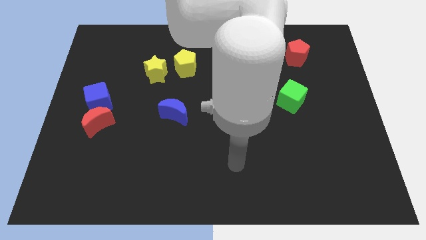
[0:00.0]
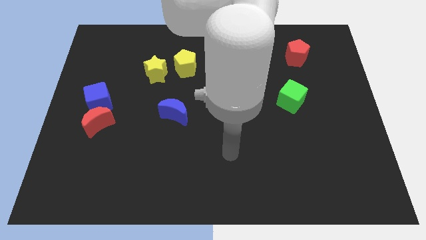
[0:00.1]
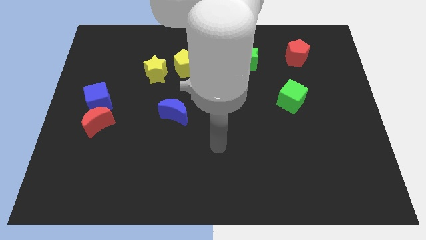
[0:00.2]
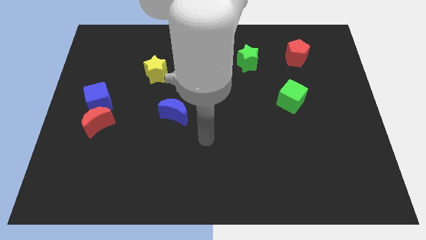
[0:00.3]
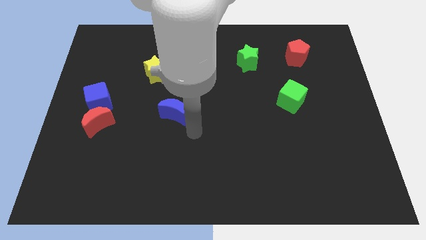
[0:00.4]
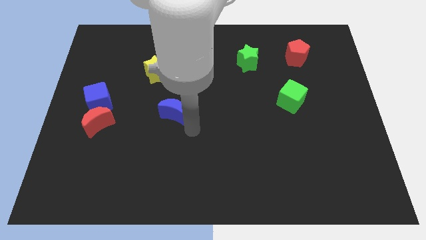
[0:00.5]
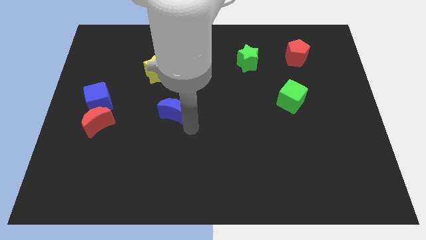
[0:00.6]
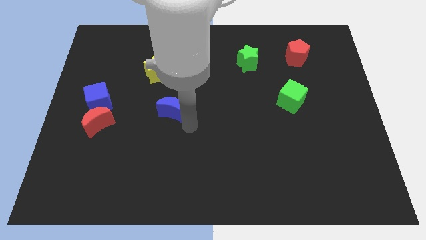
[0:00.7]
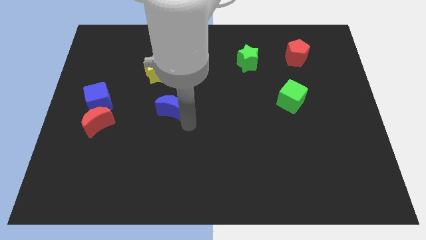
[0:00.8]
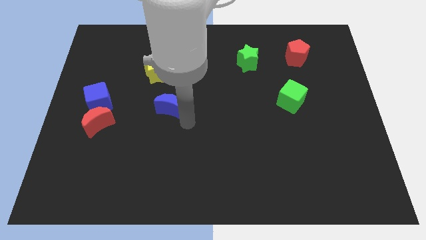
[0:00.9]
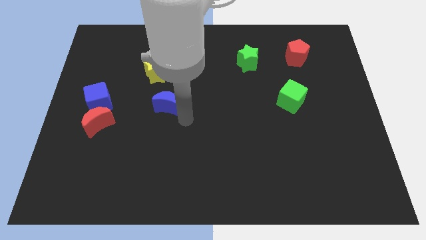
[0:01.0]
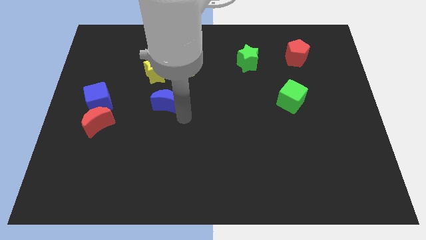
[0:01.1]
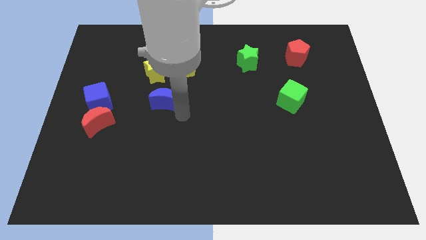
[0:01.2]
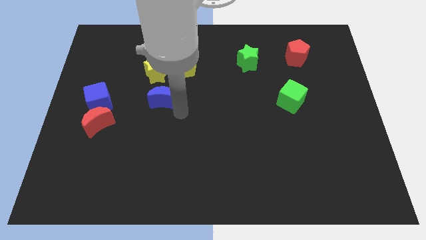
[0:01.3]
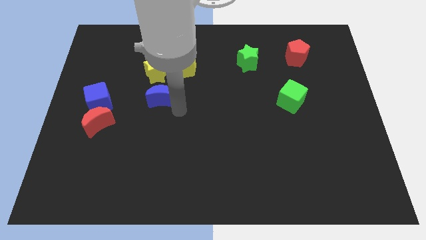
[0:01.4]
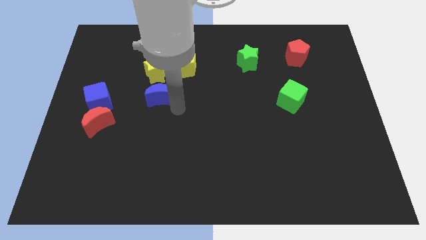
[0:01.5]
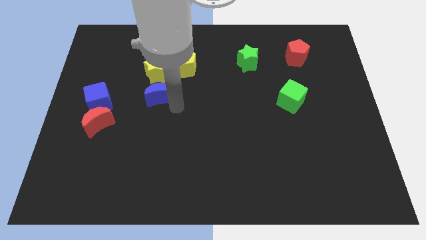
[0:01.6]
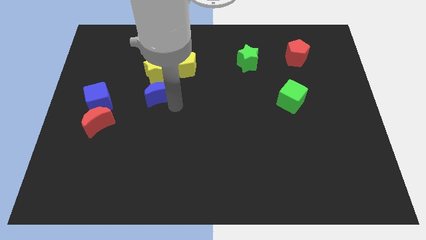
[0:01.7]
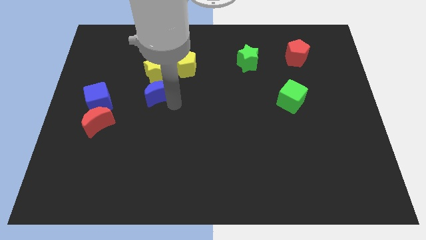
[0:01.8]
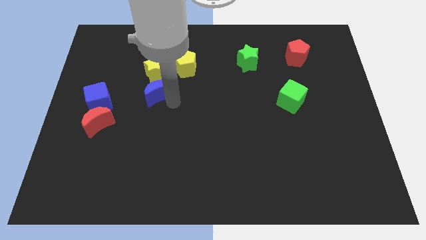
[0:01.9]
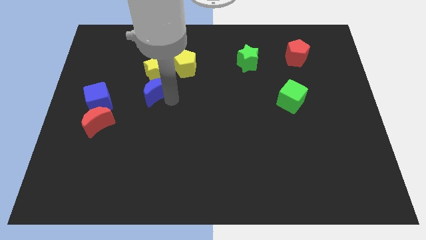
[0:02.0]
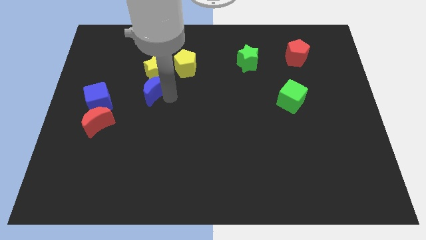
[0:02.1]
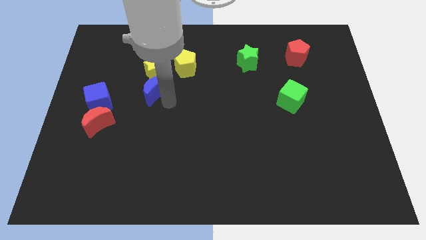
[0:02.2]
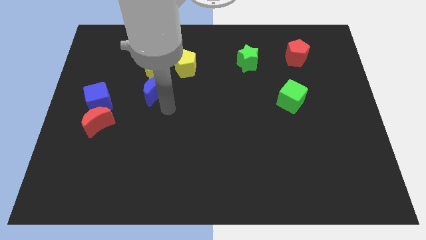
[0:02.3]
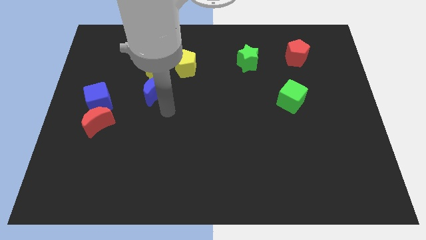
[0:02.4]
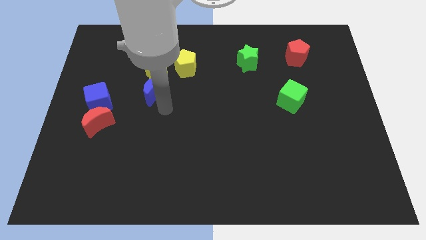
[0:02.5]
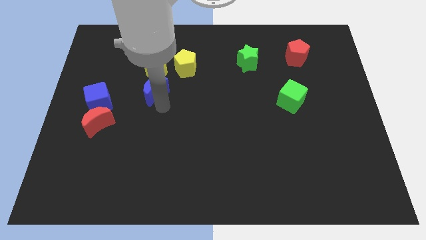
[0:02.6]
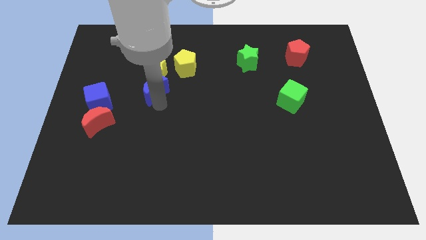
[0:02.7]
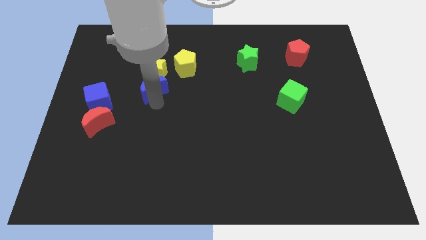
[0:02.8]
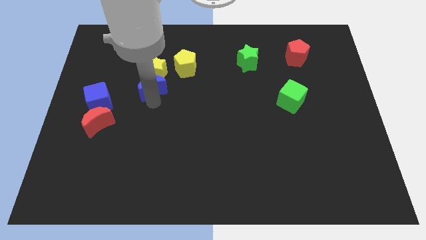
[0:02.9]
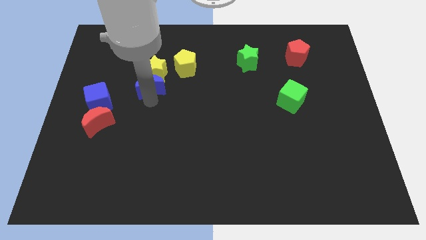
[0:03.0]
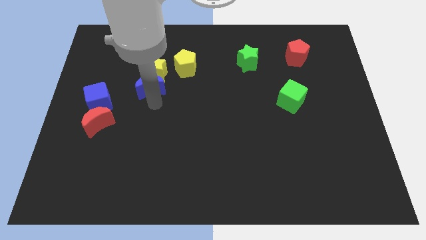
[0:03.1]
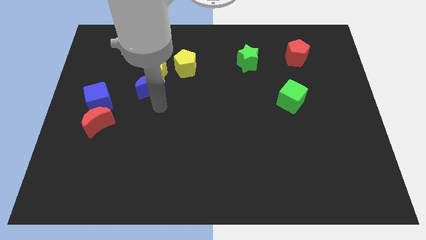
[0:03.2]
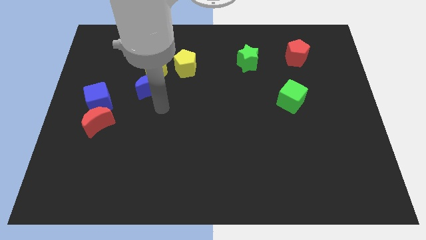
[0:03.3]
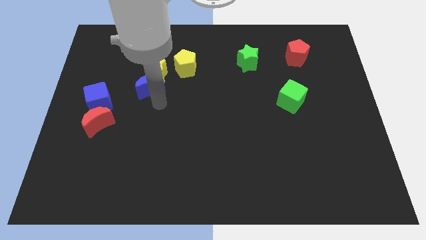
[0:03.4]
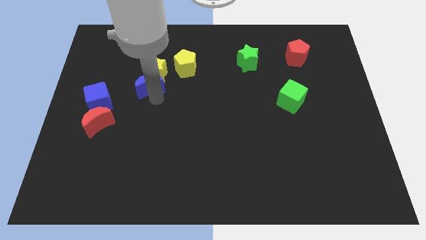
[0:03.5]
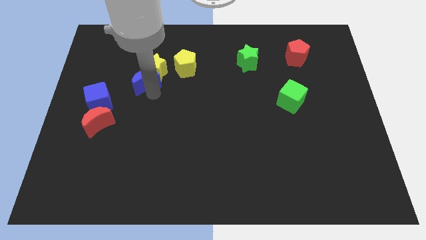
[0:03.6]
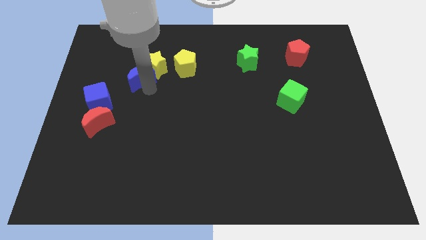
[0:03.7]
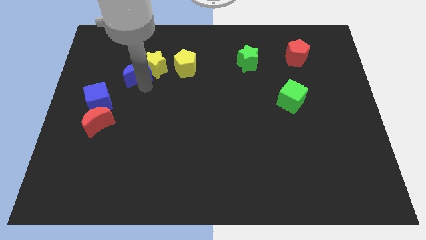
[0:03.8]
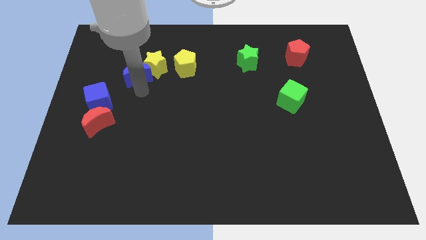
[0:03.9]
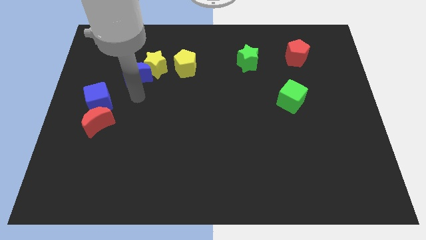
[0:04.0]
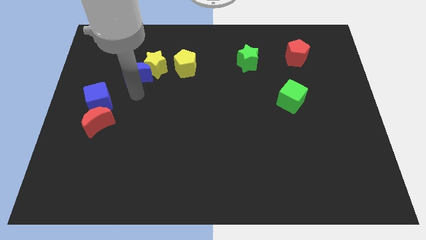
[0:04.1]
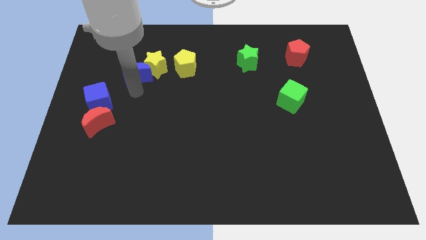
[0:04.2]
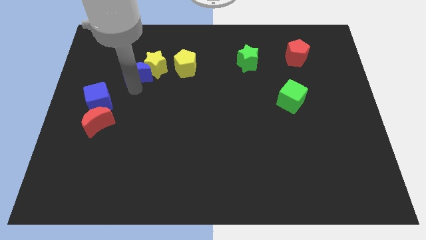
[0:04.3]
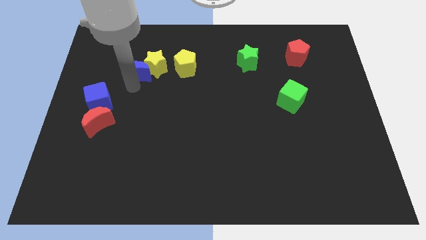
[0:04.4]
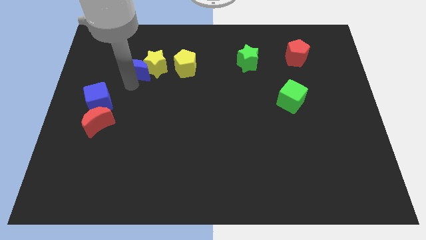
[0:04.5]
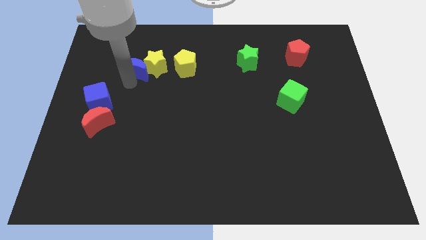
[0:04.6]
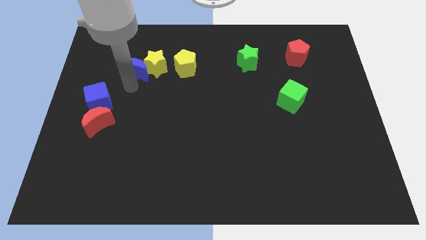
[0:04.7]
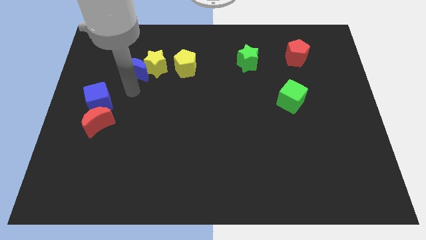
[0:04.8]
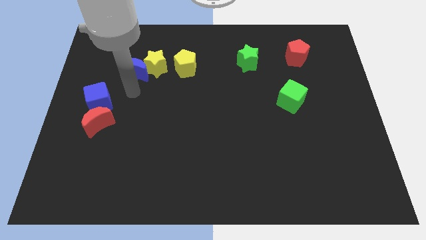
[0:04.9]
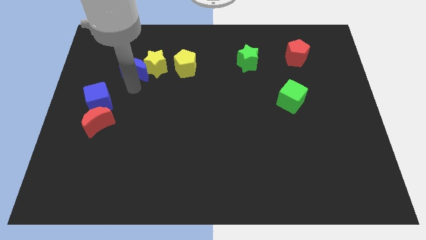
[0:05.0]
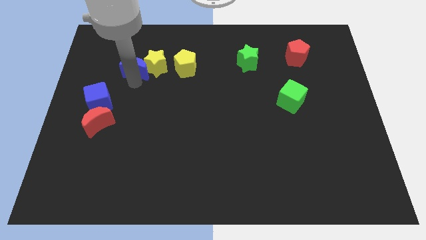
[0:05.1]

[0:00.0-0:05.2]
put the blue moon to the top left side of the yellow star

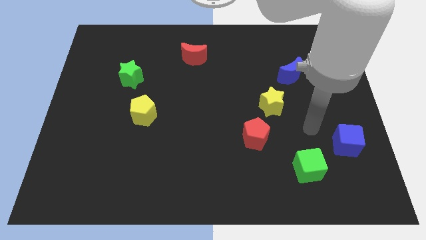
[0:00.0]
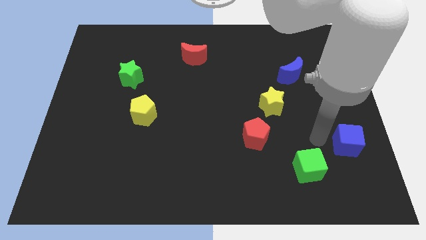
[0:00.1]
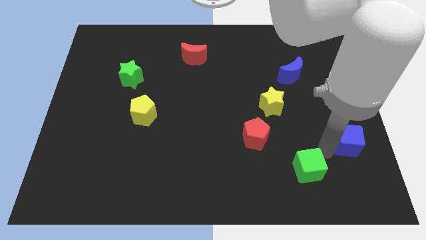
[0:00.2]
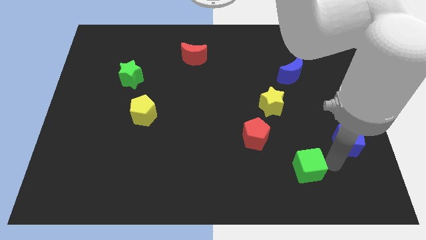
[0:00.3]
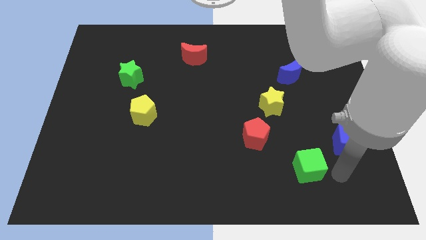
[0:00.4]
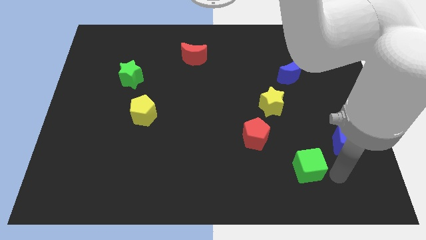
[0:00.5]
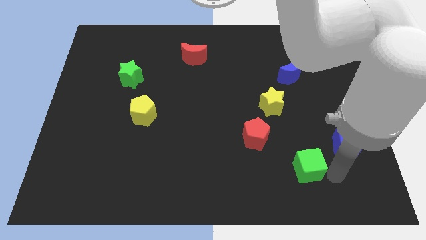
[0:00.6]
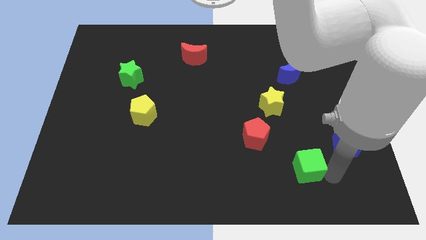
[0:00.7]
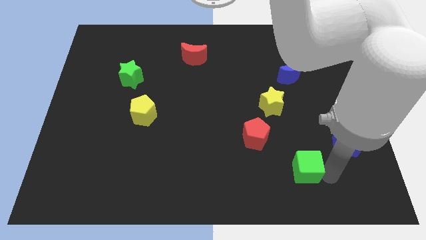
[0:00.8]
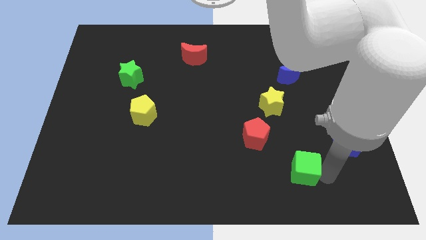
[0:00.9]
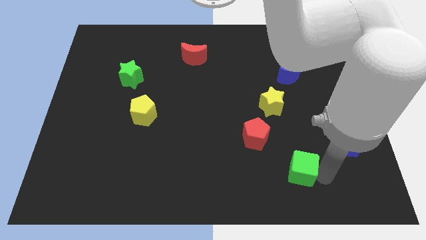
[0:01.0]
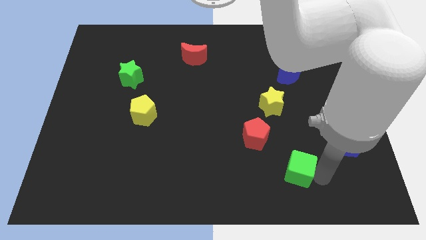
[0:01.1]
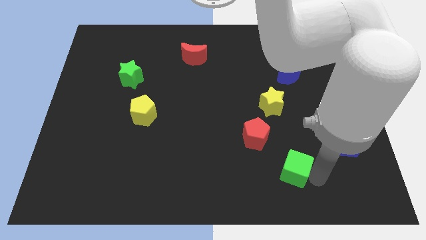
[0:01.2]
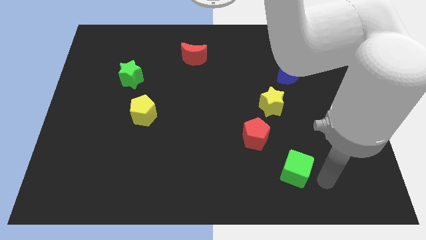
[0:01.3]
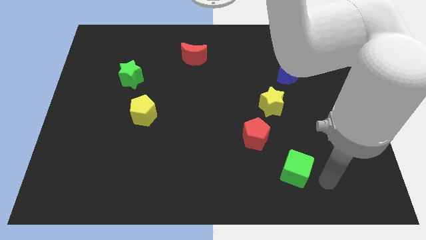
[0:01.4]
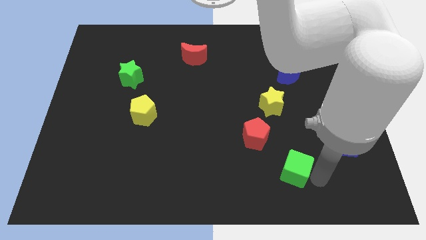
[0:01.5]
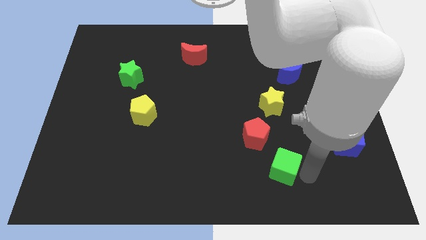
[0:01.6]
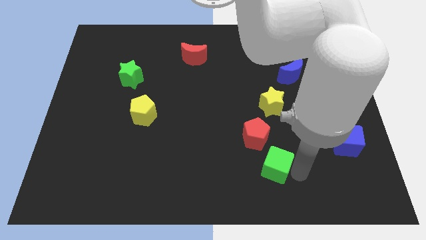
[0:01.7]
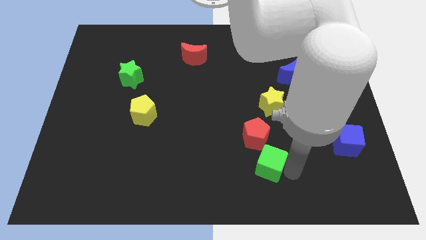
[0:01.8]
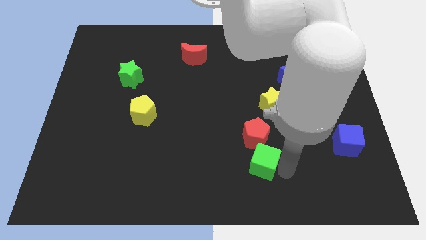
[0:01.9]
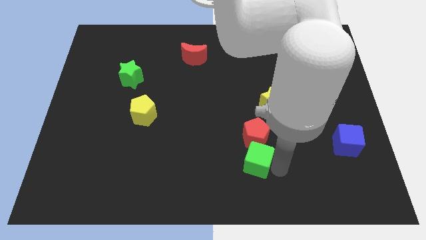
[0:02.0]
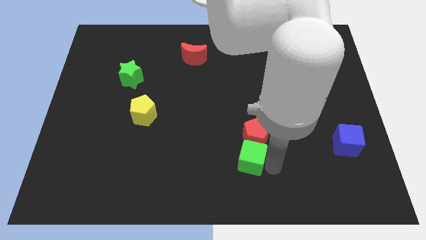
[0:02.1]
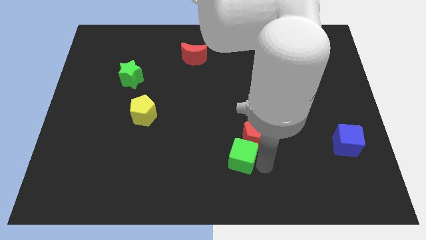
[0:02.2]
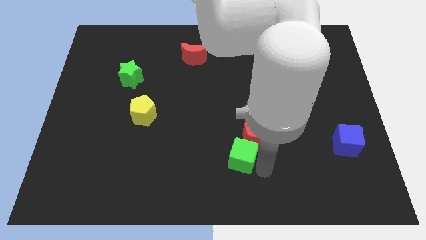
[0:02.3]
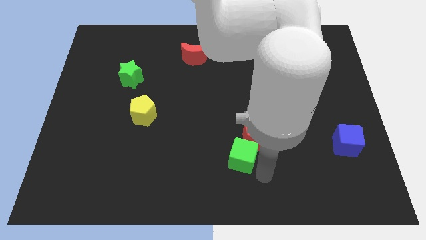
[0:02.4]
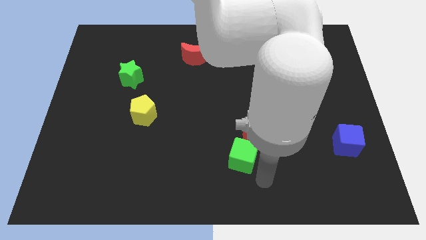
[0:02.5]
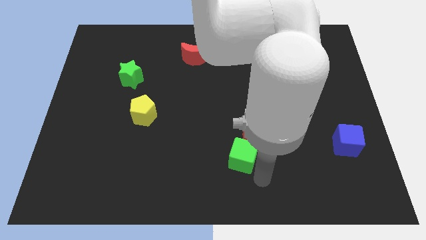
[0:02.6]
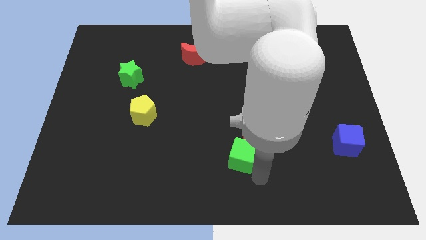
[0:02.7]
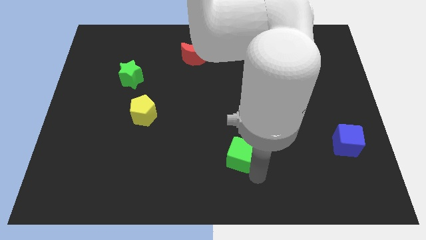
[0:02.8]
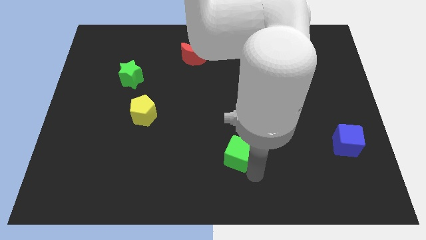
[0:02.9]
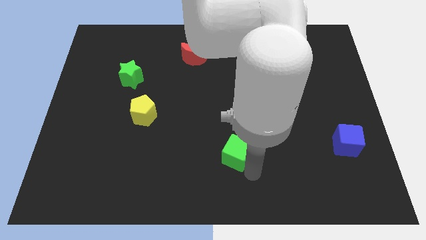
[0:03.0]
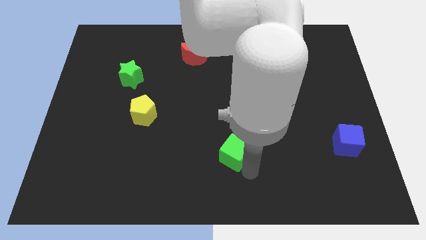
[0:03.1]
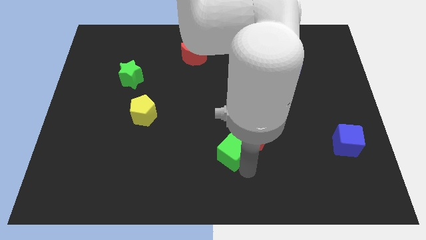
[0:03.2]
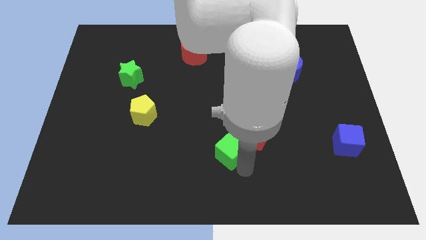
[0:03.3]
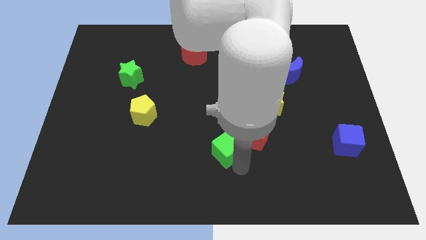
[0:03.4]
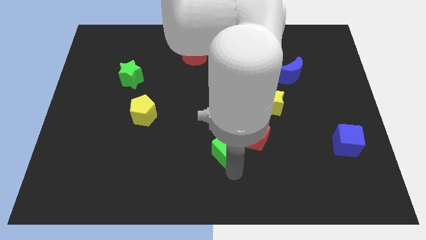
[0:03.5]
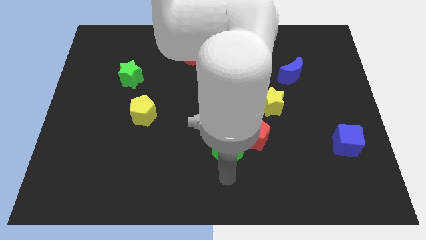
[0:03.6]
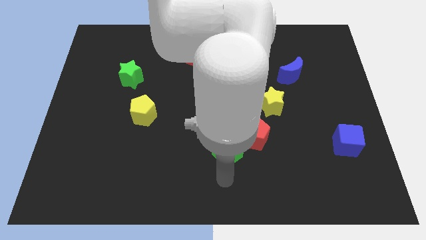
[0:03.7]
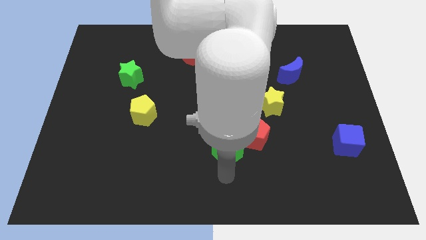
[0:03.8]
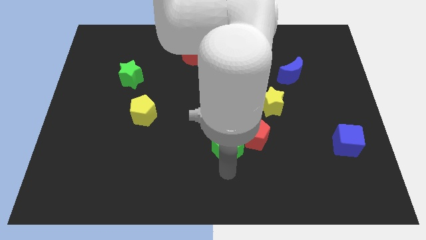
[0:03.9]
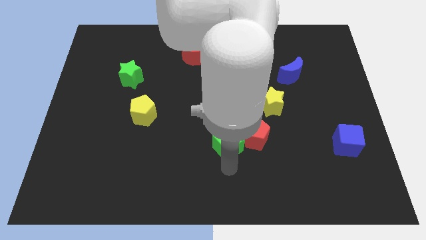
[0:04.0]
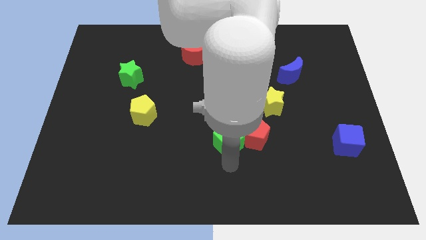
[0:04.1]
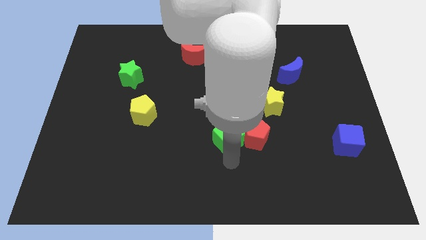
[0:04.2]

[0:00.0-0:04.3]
push the green cube to the top left of the red pentagon
